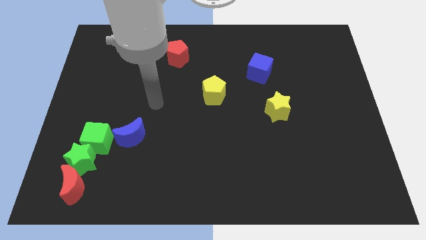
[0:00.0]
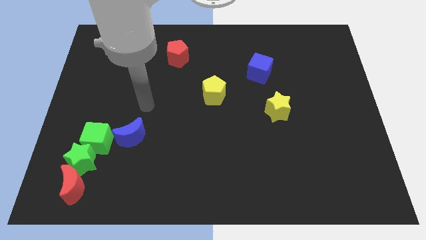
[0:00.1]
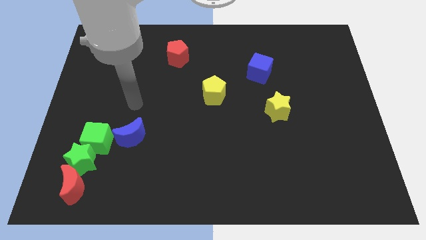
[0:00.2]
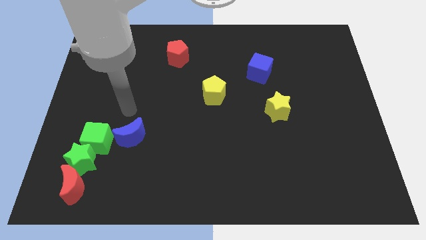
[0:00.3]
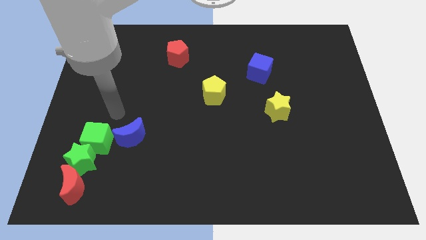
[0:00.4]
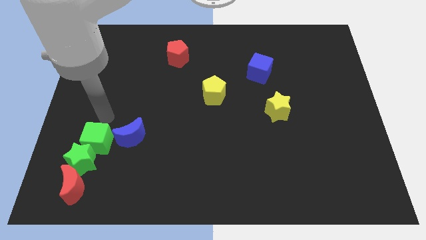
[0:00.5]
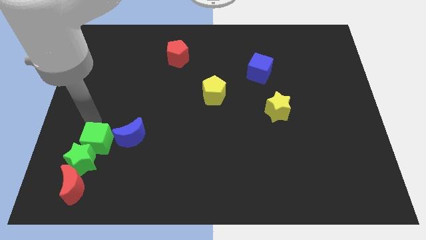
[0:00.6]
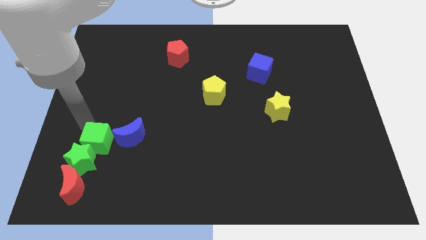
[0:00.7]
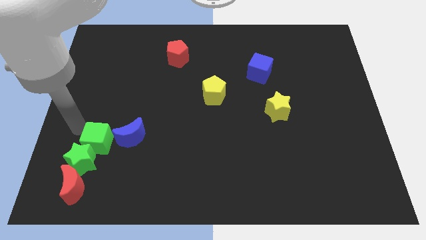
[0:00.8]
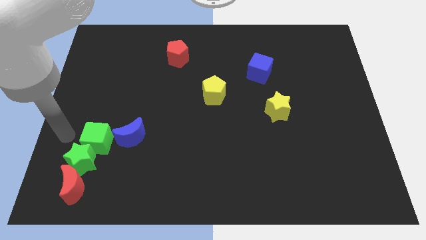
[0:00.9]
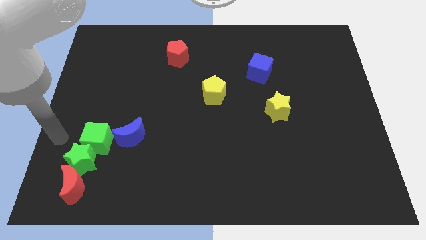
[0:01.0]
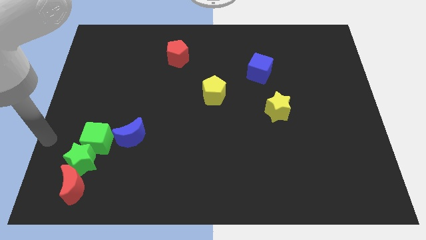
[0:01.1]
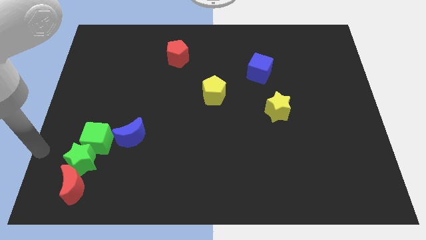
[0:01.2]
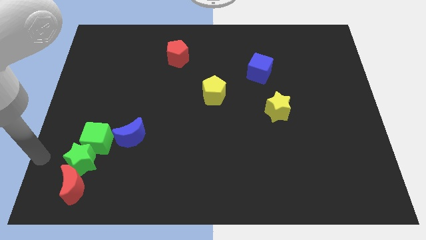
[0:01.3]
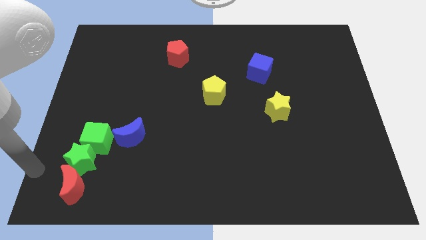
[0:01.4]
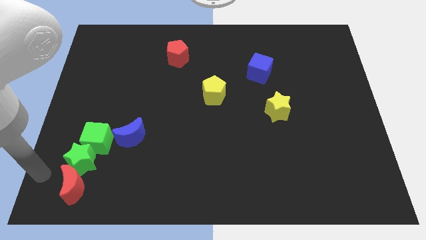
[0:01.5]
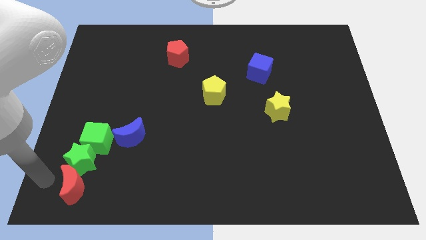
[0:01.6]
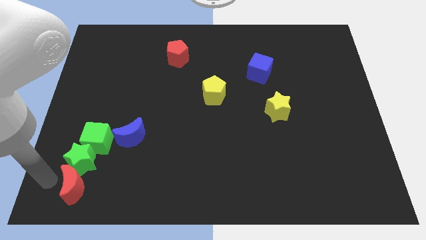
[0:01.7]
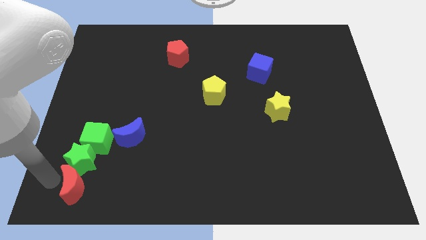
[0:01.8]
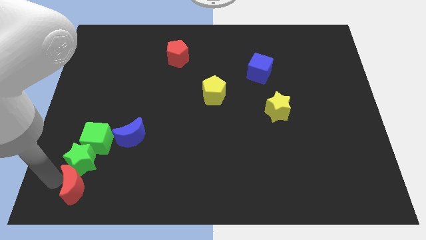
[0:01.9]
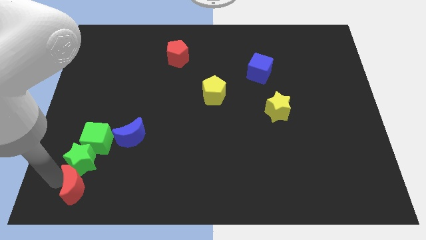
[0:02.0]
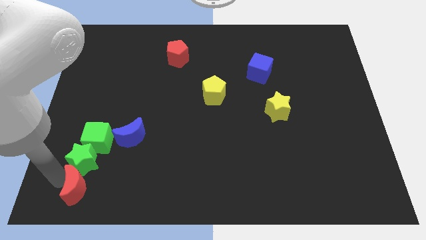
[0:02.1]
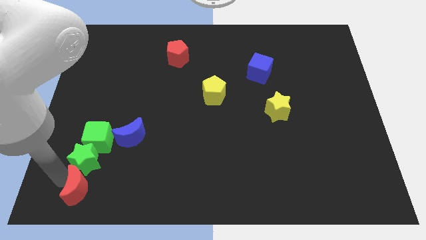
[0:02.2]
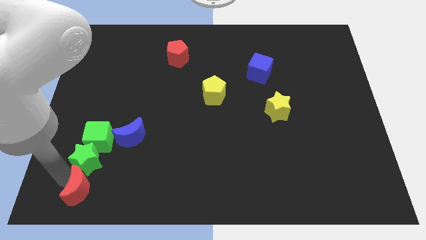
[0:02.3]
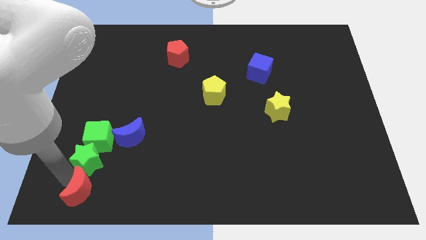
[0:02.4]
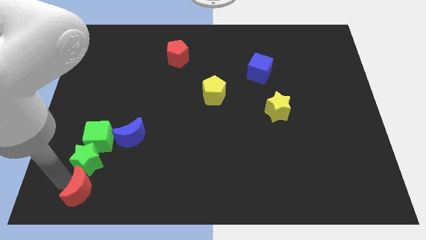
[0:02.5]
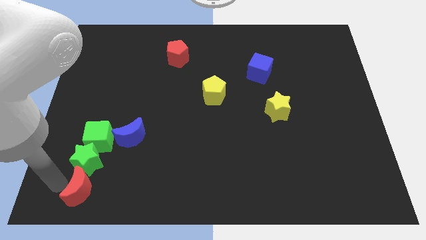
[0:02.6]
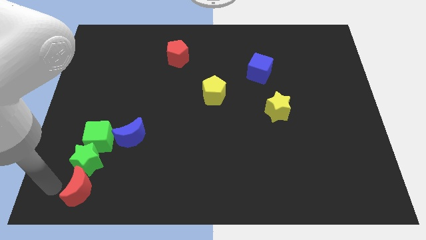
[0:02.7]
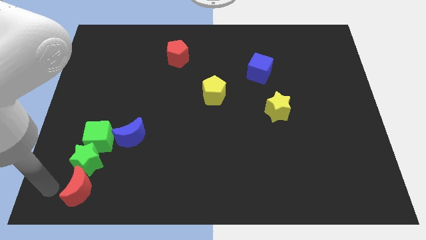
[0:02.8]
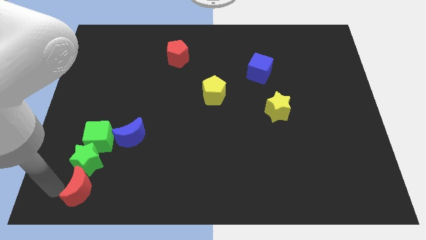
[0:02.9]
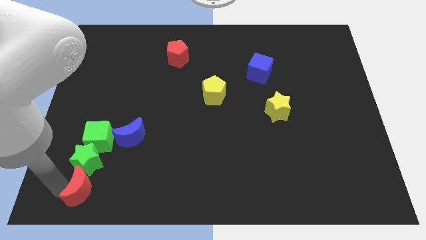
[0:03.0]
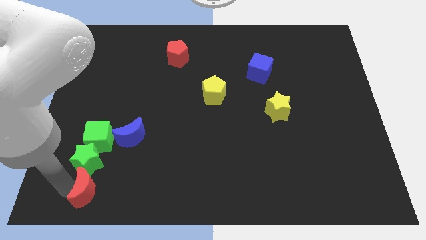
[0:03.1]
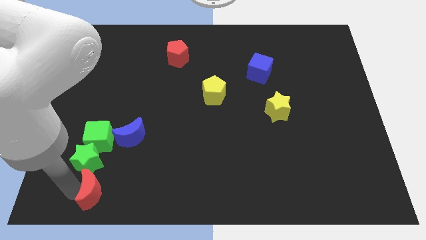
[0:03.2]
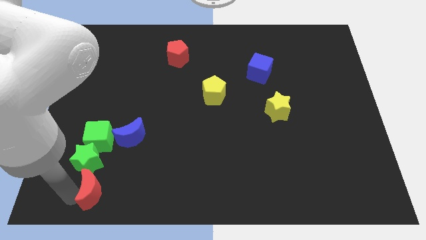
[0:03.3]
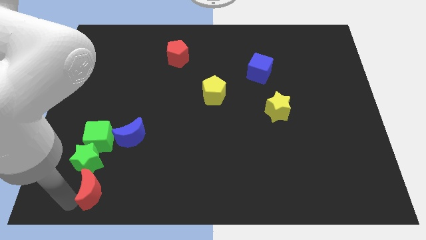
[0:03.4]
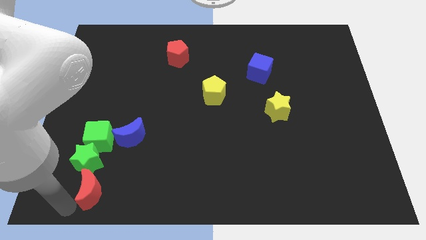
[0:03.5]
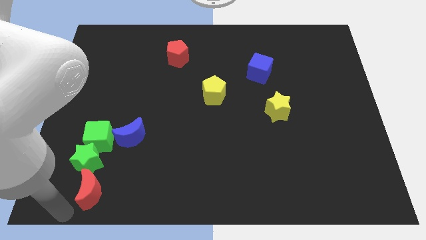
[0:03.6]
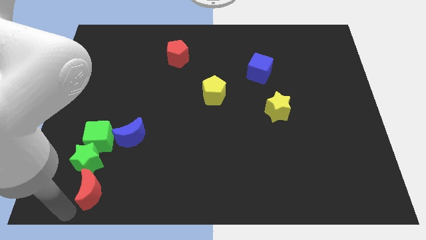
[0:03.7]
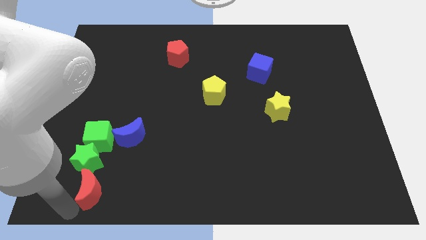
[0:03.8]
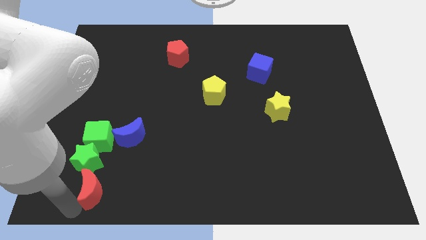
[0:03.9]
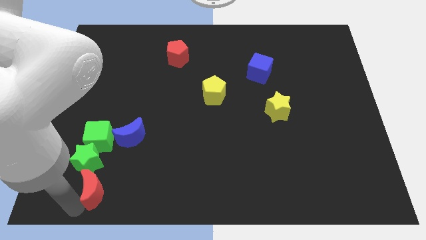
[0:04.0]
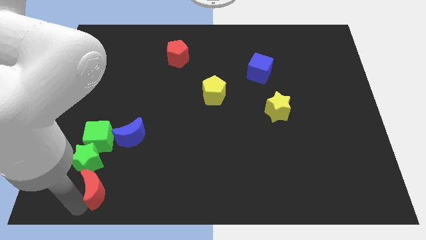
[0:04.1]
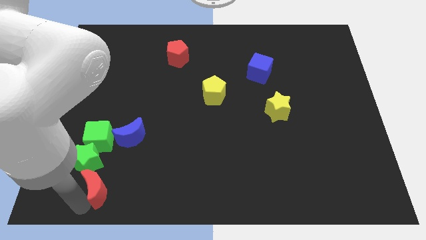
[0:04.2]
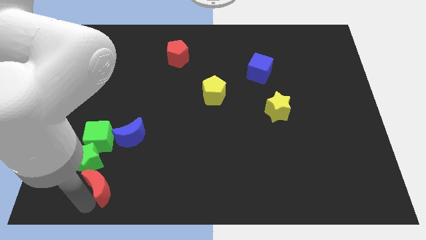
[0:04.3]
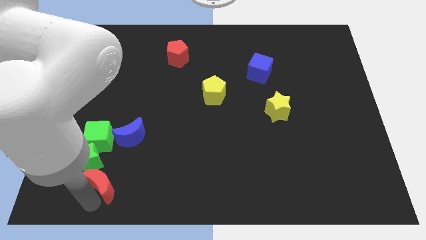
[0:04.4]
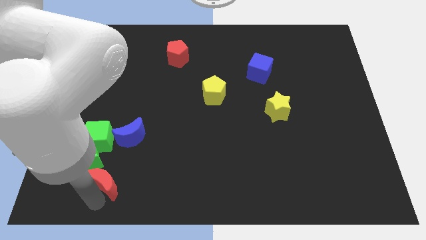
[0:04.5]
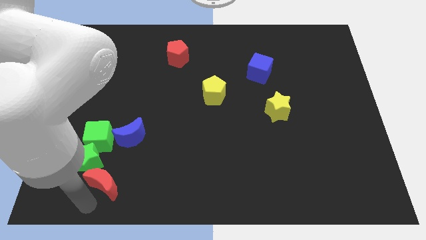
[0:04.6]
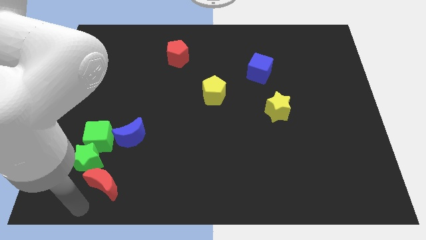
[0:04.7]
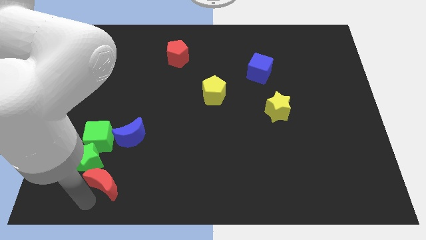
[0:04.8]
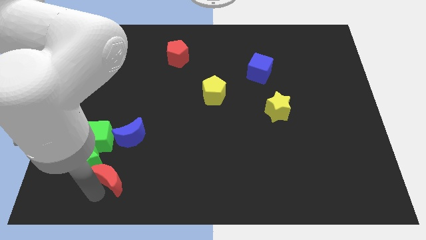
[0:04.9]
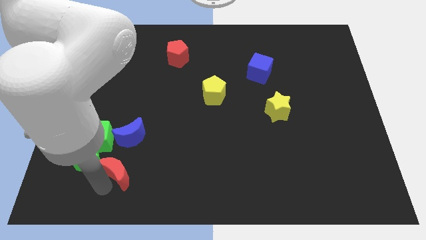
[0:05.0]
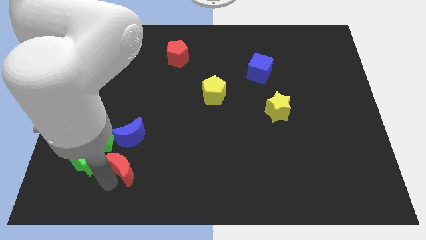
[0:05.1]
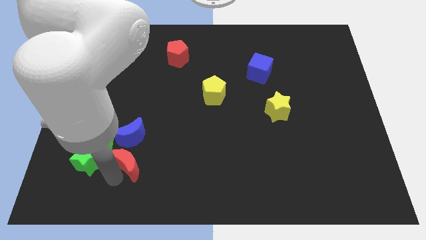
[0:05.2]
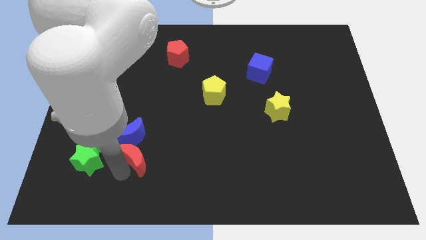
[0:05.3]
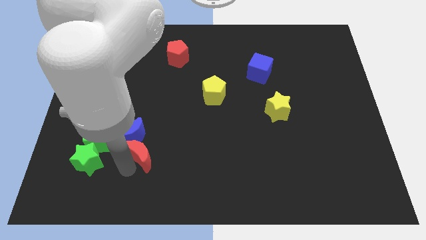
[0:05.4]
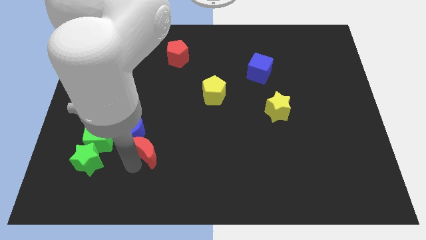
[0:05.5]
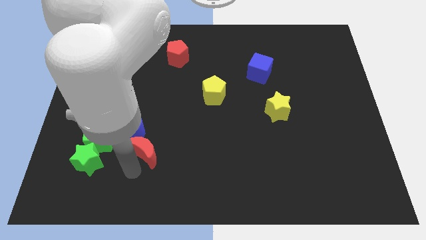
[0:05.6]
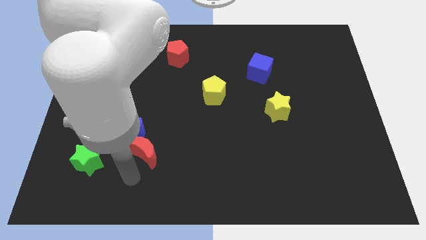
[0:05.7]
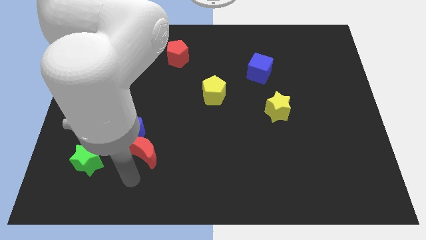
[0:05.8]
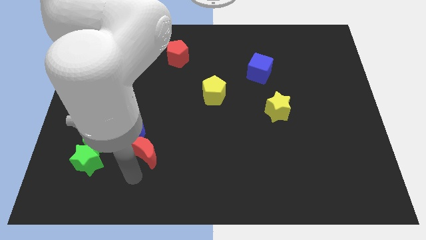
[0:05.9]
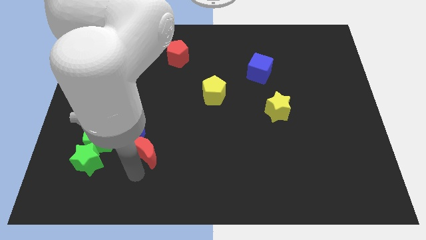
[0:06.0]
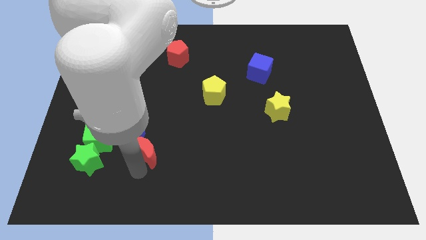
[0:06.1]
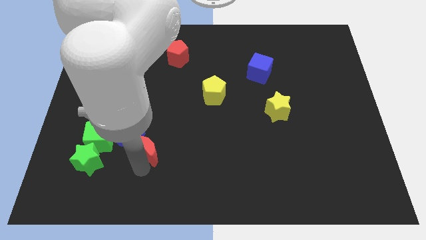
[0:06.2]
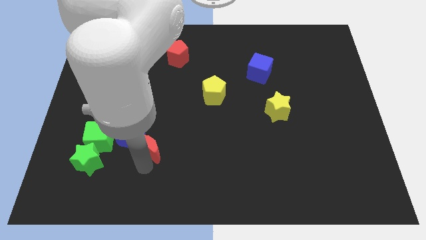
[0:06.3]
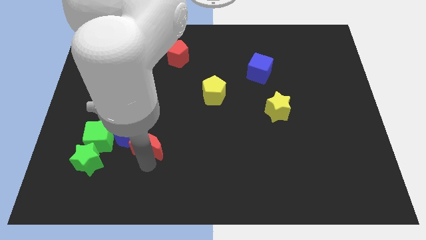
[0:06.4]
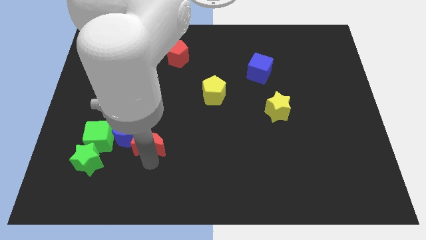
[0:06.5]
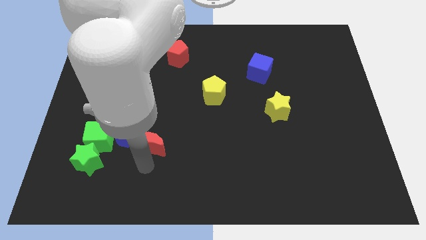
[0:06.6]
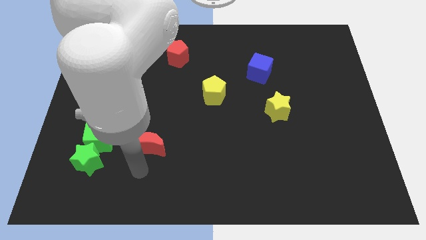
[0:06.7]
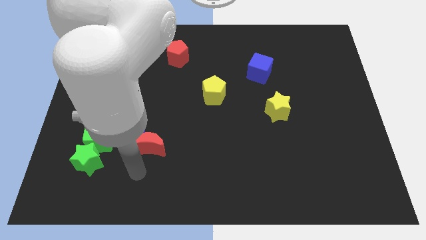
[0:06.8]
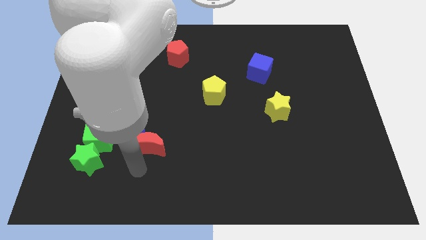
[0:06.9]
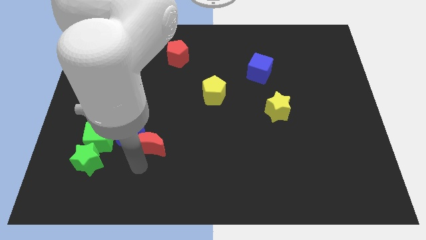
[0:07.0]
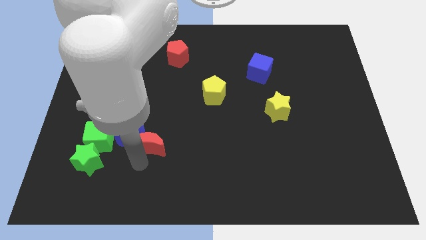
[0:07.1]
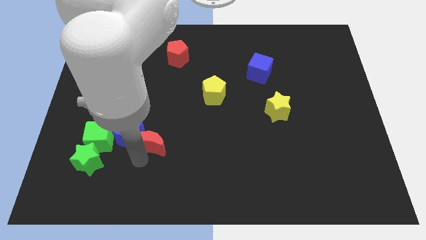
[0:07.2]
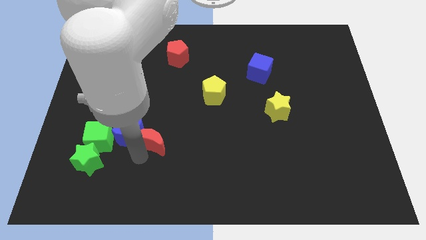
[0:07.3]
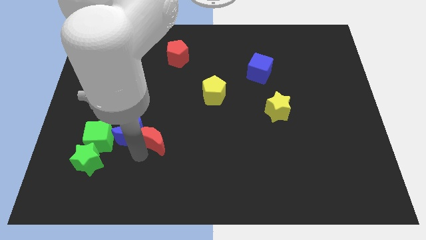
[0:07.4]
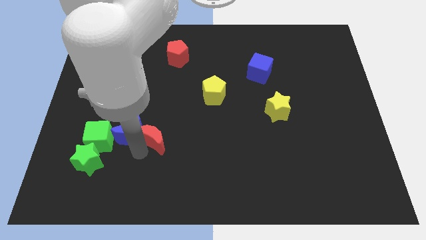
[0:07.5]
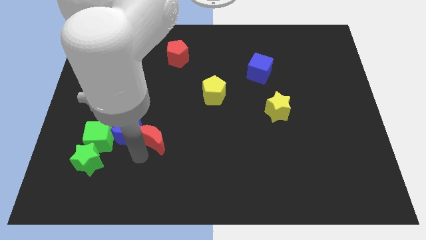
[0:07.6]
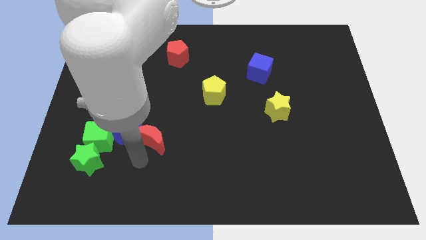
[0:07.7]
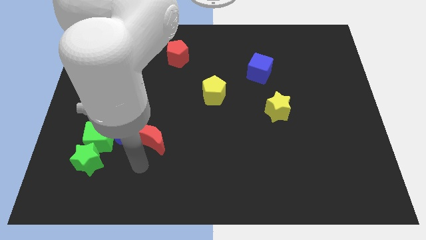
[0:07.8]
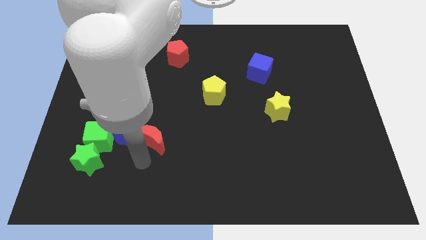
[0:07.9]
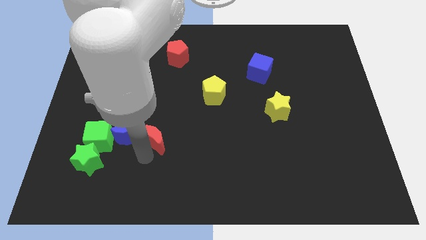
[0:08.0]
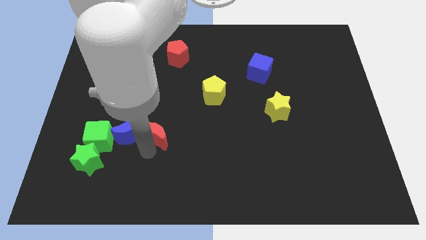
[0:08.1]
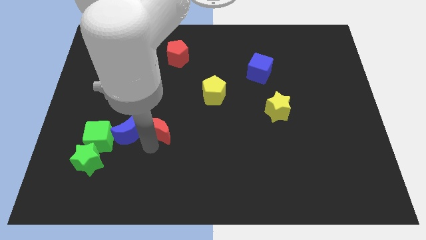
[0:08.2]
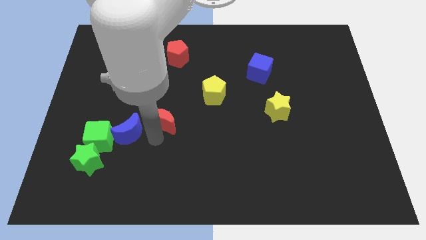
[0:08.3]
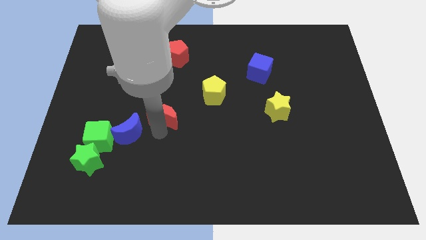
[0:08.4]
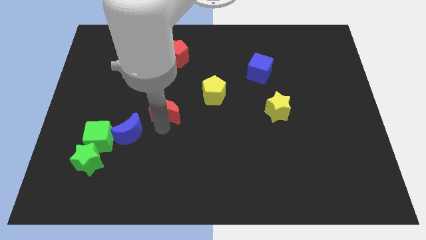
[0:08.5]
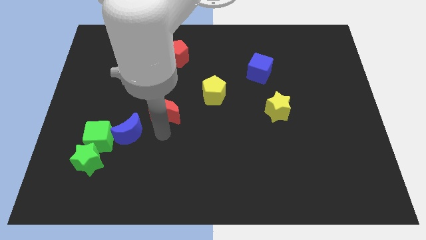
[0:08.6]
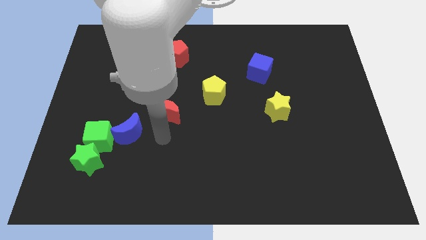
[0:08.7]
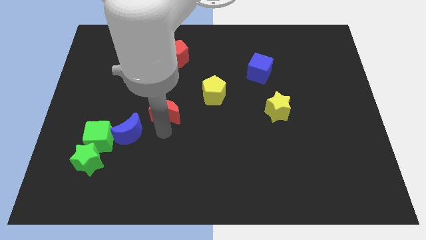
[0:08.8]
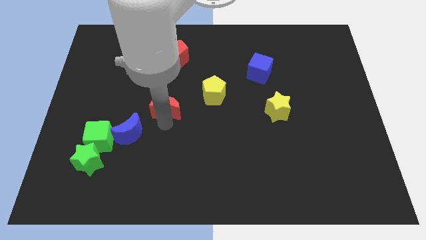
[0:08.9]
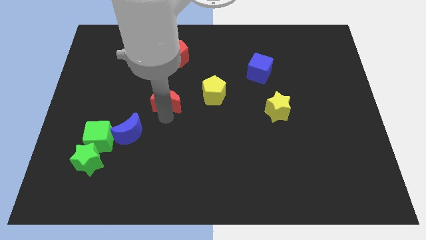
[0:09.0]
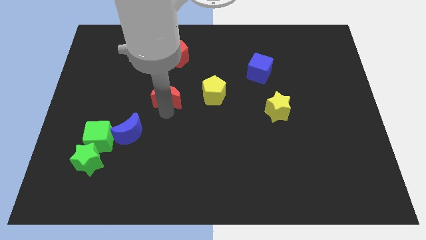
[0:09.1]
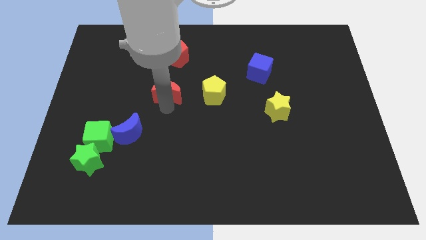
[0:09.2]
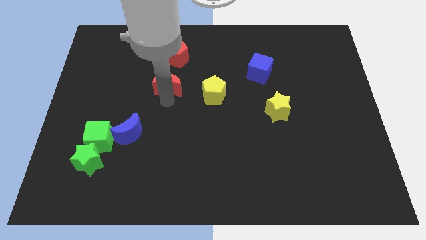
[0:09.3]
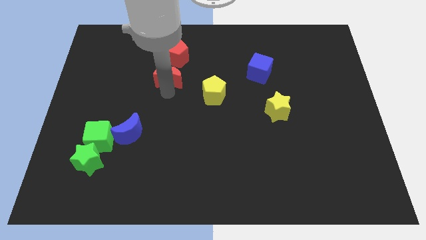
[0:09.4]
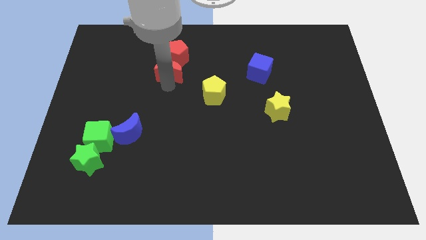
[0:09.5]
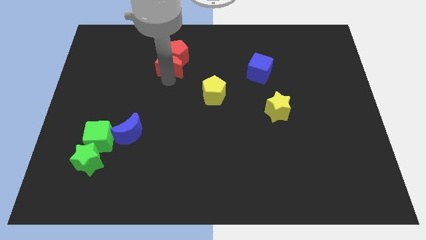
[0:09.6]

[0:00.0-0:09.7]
slide the red moon towards the red pentagon
